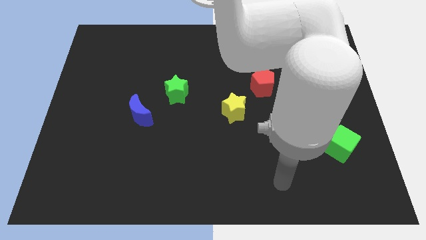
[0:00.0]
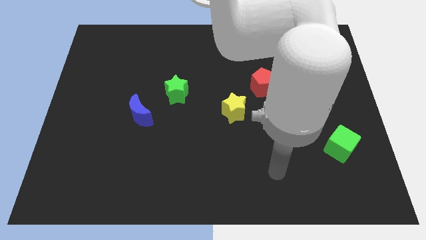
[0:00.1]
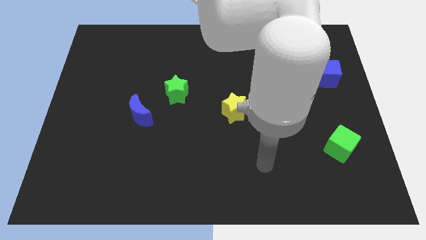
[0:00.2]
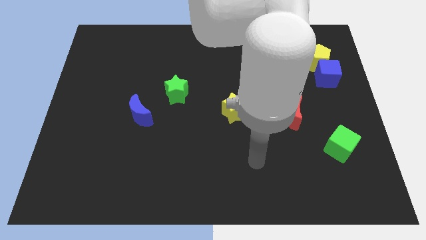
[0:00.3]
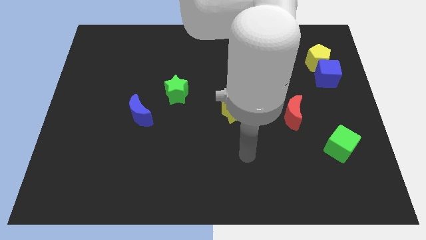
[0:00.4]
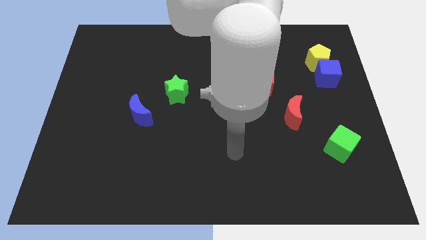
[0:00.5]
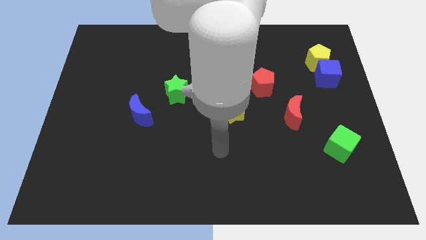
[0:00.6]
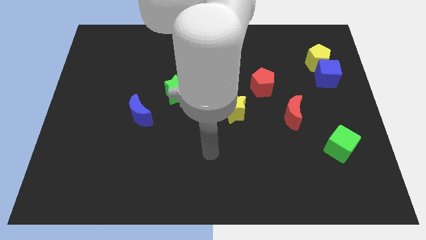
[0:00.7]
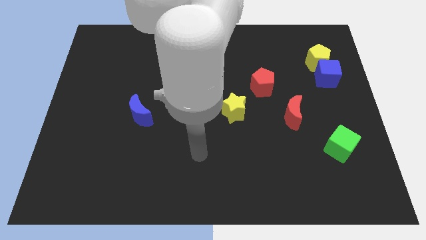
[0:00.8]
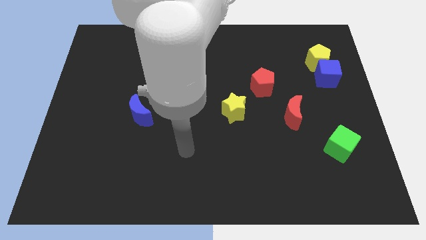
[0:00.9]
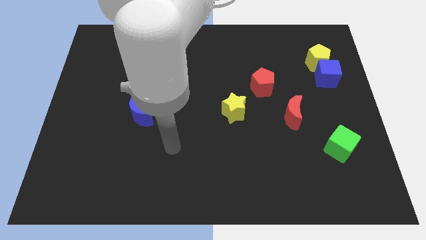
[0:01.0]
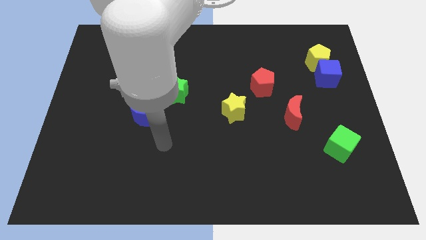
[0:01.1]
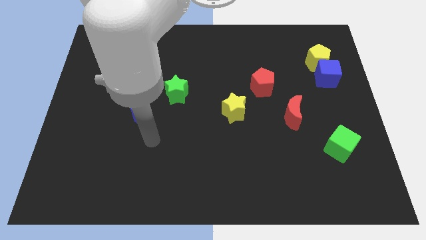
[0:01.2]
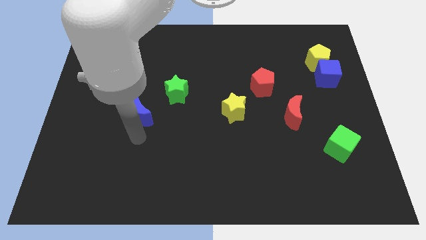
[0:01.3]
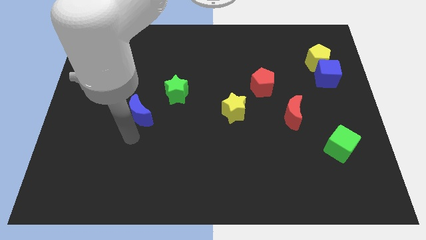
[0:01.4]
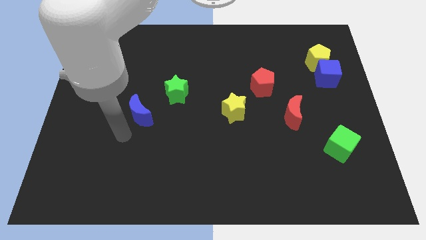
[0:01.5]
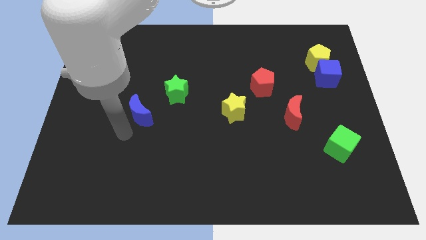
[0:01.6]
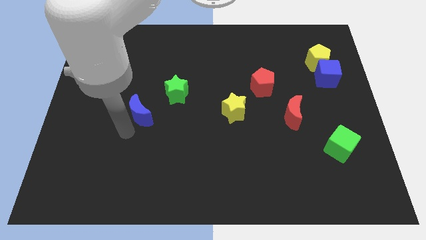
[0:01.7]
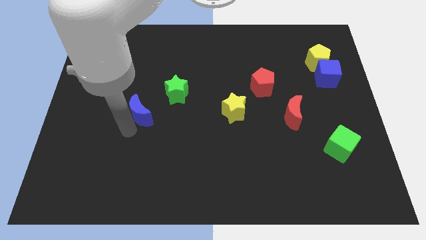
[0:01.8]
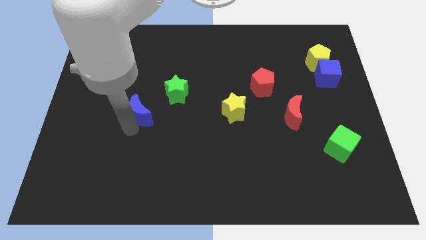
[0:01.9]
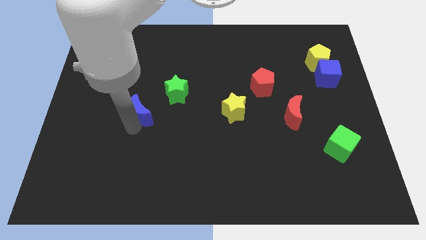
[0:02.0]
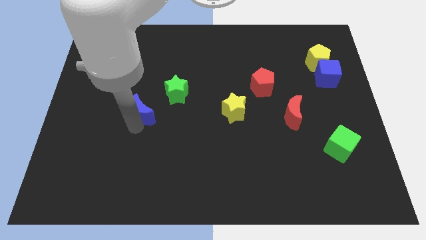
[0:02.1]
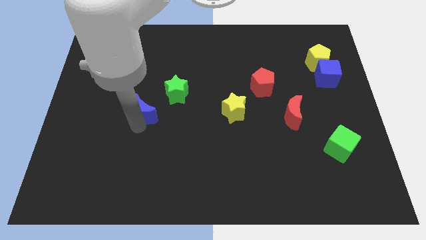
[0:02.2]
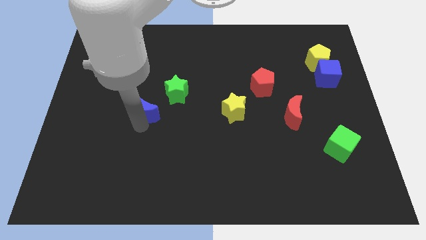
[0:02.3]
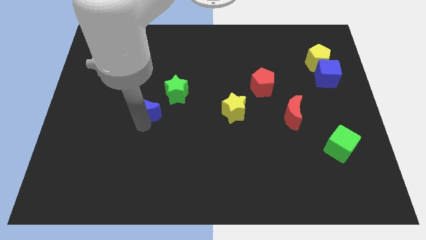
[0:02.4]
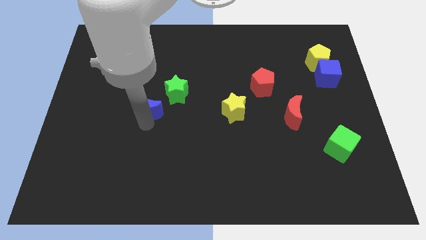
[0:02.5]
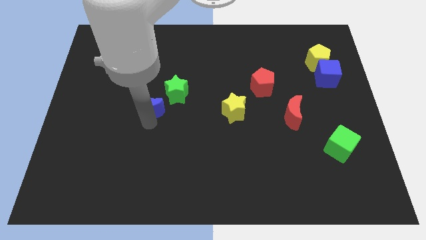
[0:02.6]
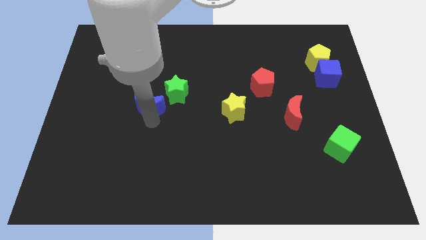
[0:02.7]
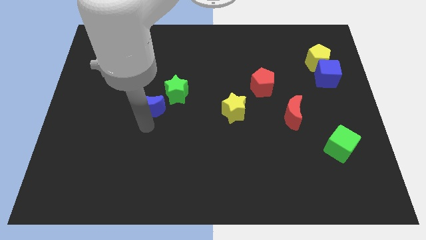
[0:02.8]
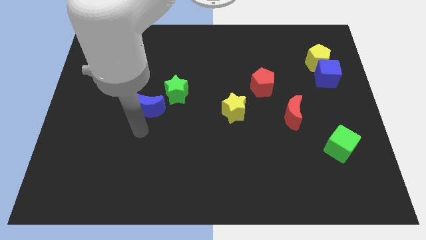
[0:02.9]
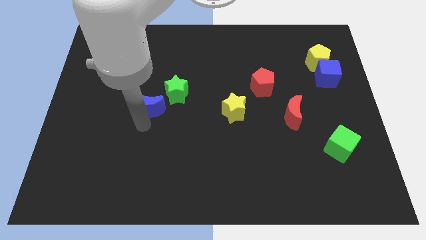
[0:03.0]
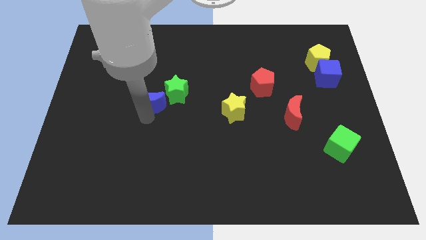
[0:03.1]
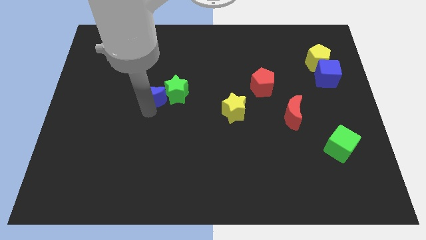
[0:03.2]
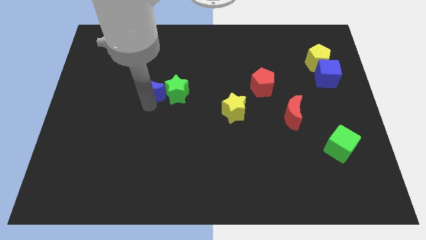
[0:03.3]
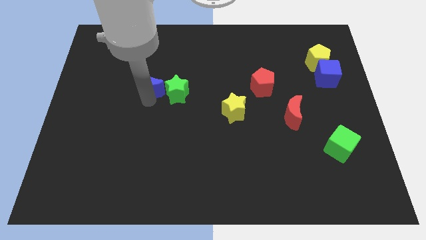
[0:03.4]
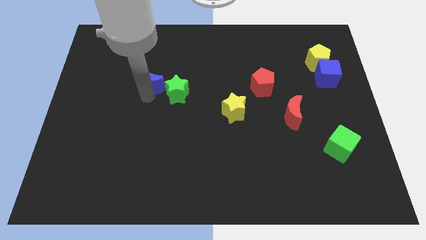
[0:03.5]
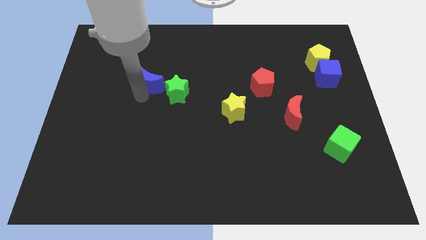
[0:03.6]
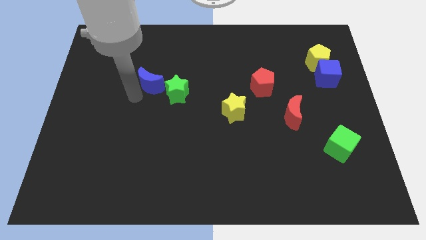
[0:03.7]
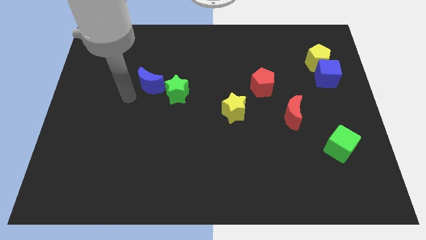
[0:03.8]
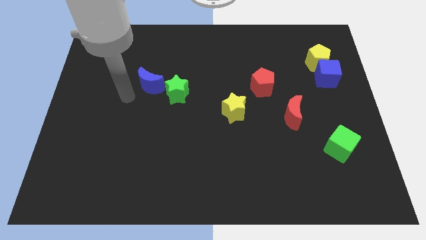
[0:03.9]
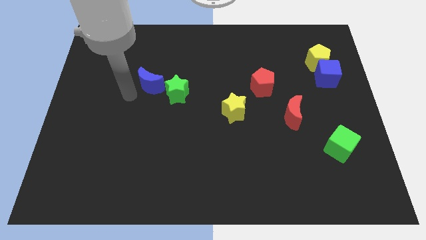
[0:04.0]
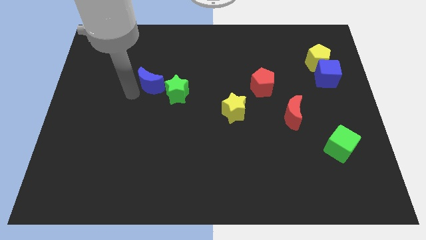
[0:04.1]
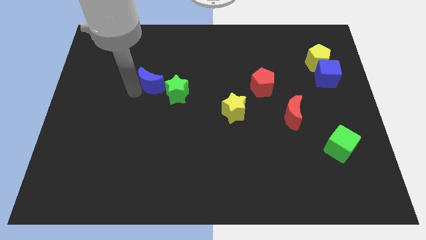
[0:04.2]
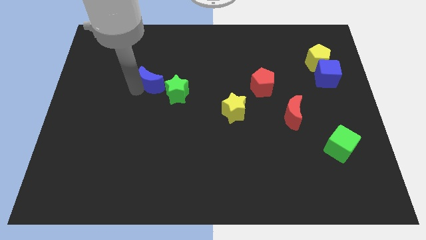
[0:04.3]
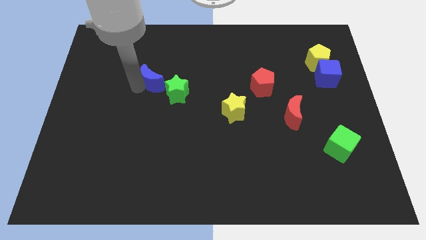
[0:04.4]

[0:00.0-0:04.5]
move the blue moon up and then to the right a little bit

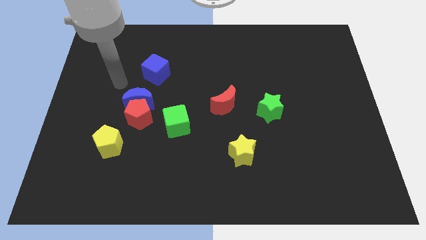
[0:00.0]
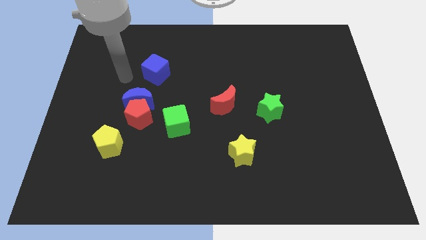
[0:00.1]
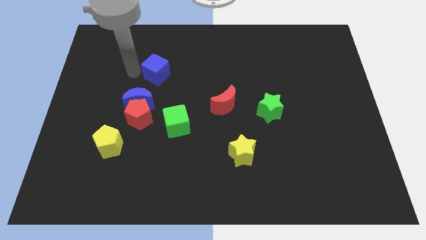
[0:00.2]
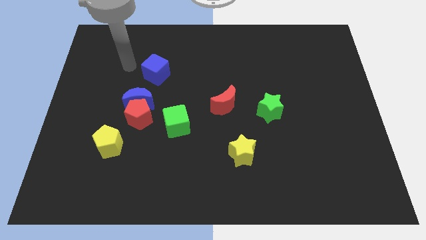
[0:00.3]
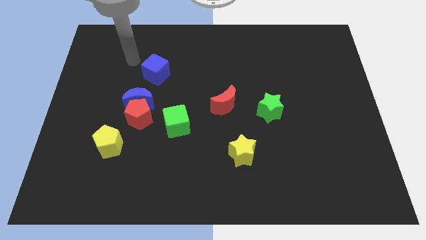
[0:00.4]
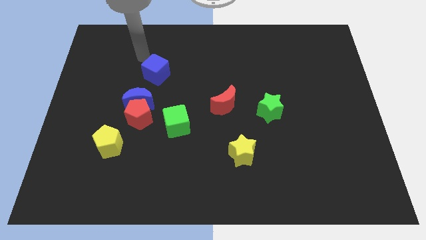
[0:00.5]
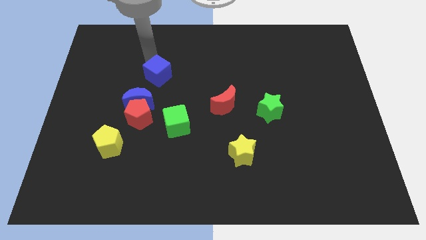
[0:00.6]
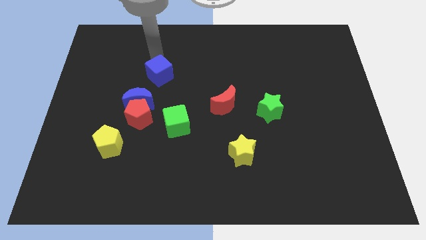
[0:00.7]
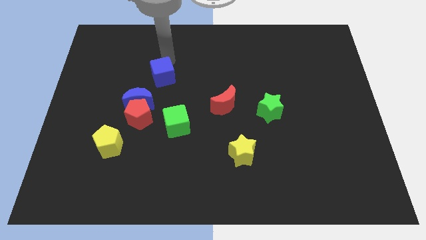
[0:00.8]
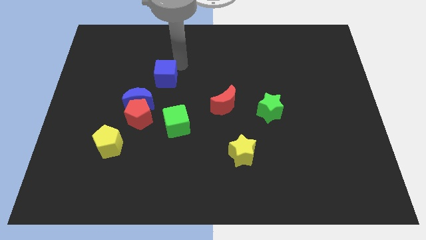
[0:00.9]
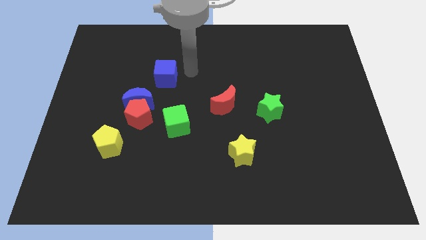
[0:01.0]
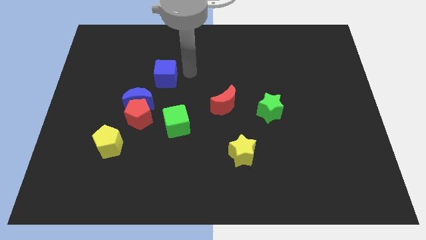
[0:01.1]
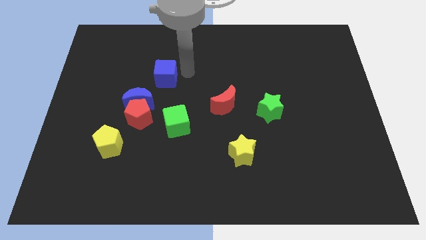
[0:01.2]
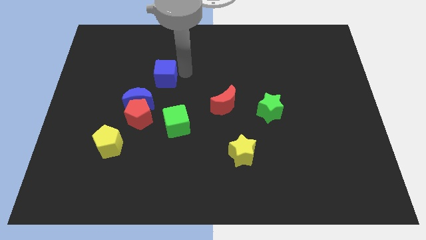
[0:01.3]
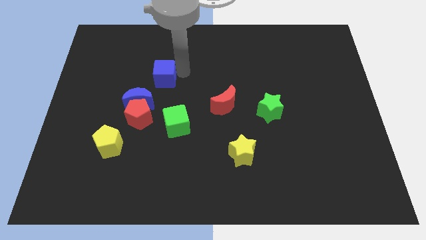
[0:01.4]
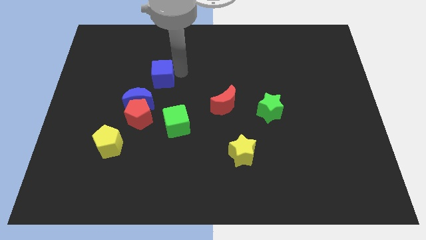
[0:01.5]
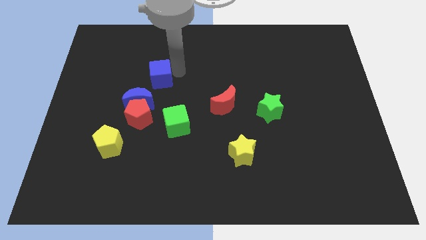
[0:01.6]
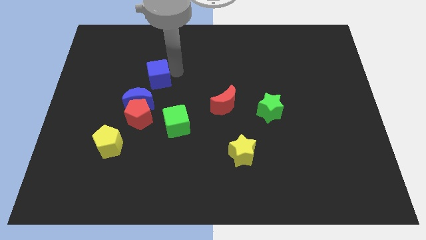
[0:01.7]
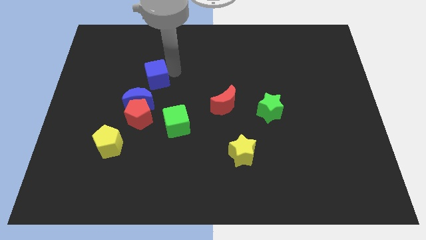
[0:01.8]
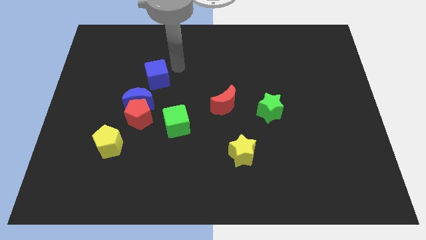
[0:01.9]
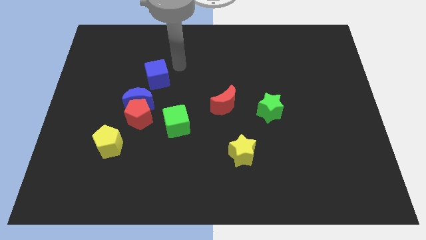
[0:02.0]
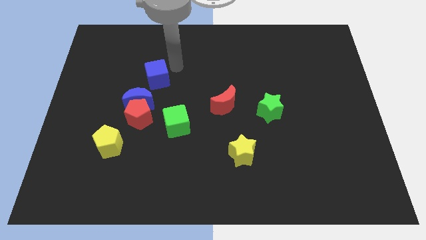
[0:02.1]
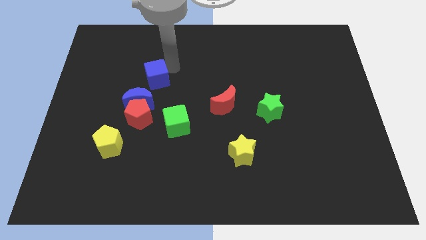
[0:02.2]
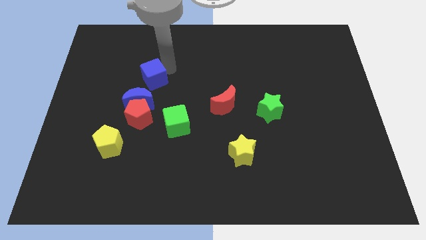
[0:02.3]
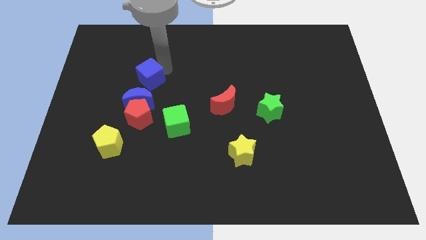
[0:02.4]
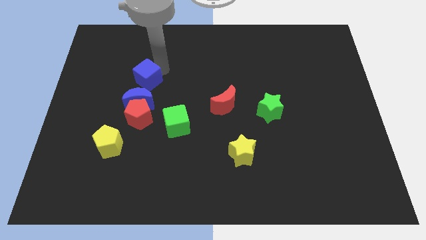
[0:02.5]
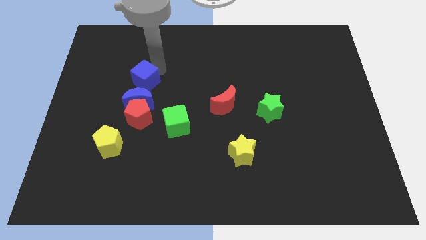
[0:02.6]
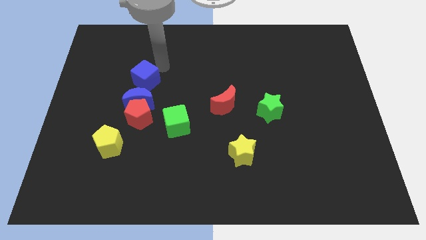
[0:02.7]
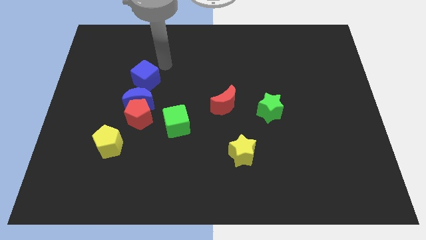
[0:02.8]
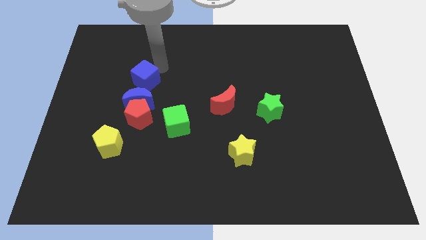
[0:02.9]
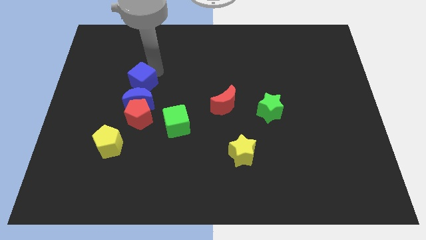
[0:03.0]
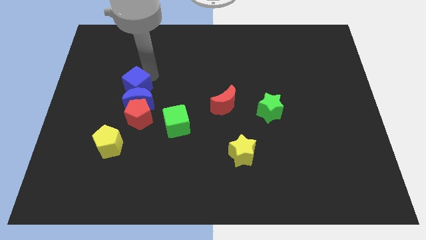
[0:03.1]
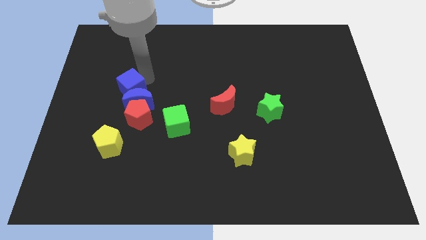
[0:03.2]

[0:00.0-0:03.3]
slightly move the blue cube downwards and left

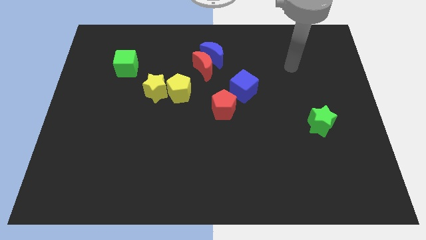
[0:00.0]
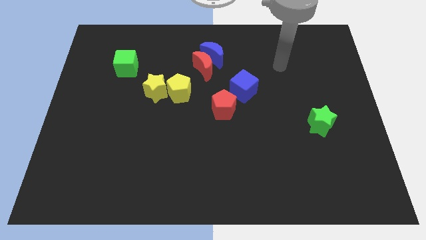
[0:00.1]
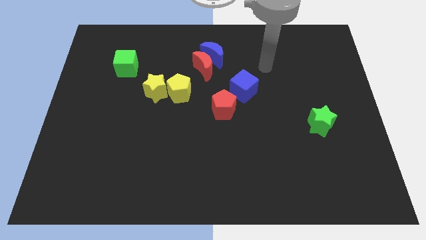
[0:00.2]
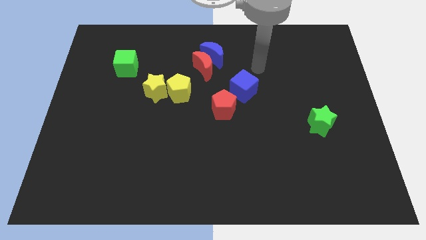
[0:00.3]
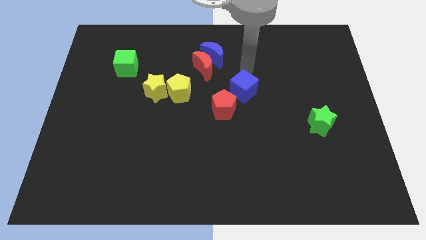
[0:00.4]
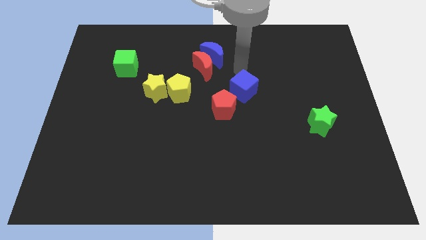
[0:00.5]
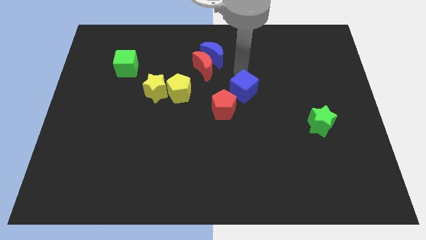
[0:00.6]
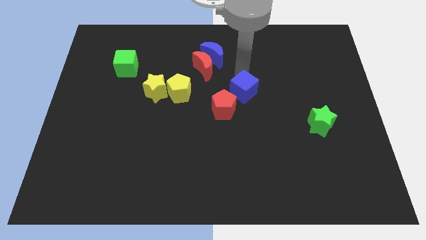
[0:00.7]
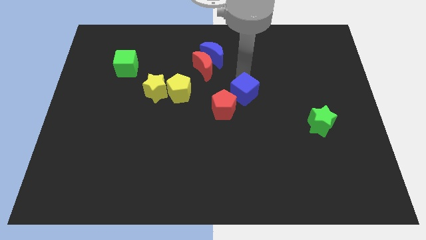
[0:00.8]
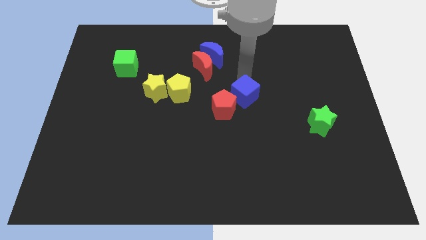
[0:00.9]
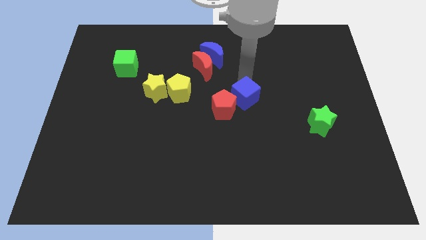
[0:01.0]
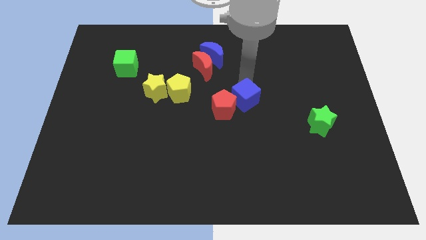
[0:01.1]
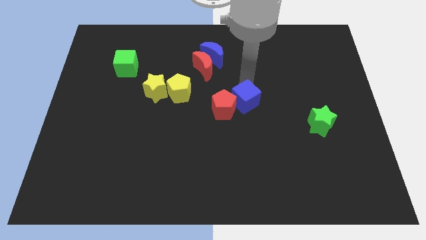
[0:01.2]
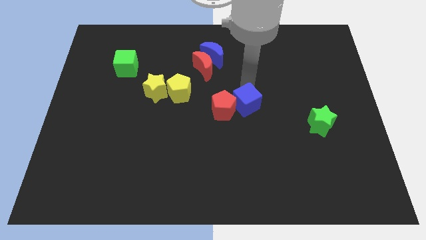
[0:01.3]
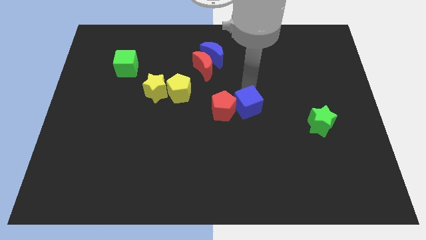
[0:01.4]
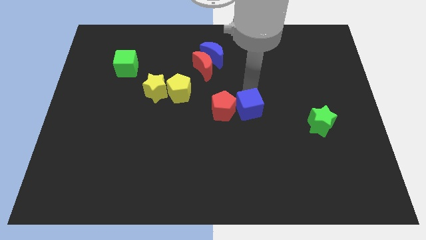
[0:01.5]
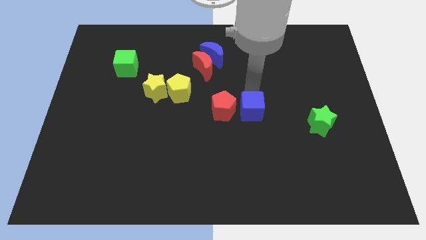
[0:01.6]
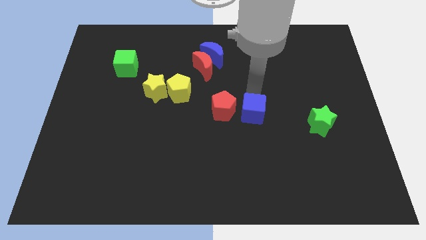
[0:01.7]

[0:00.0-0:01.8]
move the blue cube a bit down
